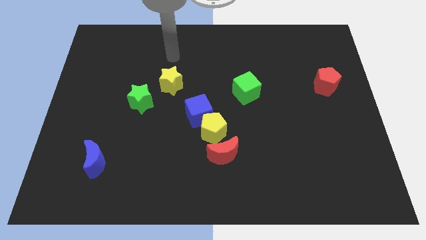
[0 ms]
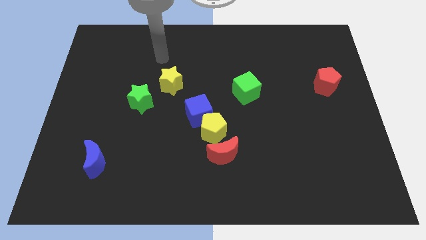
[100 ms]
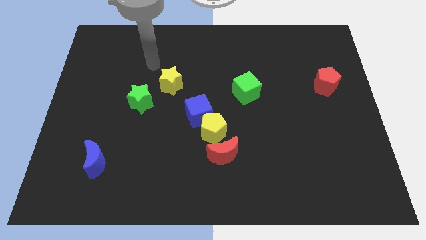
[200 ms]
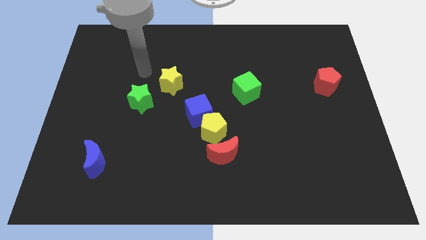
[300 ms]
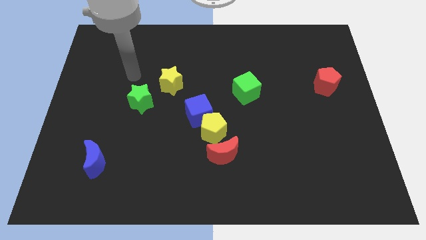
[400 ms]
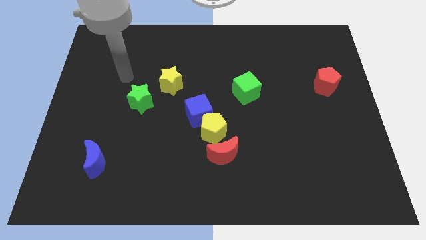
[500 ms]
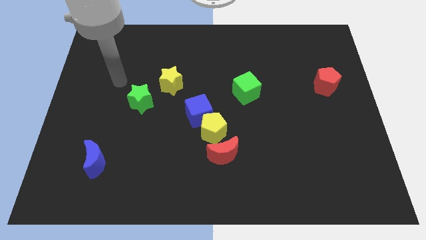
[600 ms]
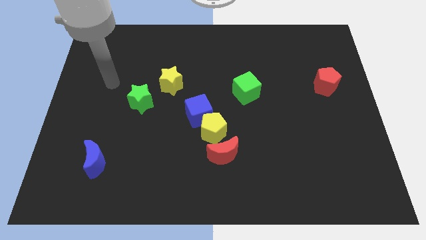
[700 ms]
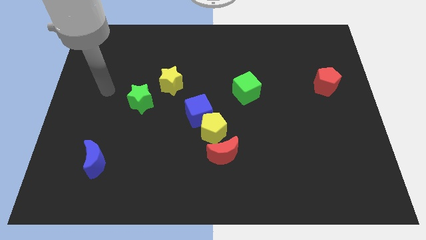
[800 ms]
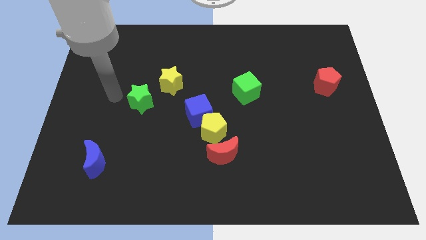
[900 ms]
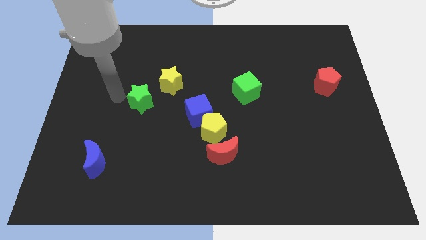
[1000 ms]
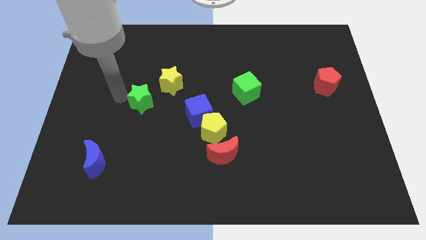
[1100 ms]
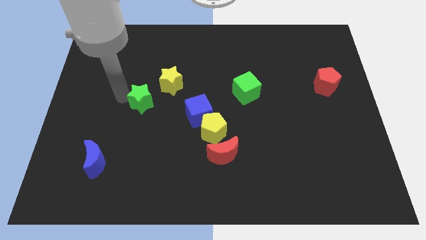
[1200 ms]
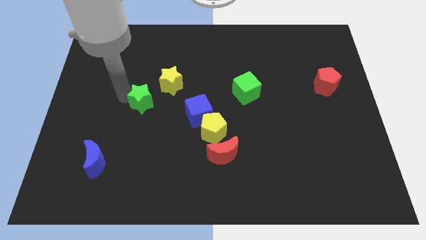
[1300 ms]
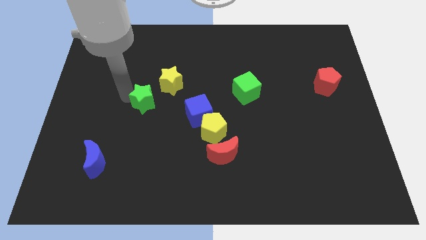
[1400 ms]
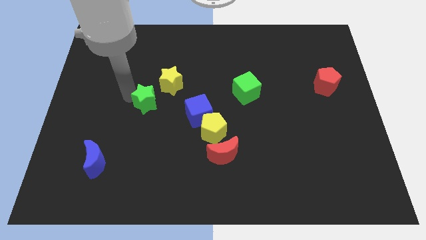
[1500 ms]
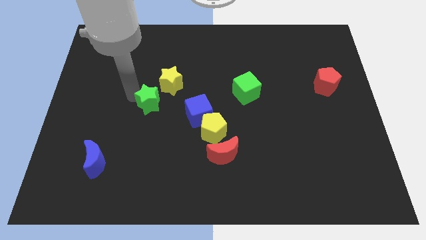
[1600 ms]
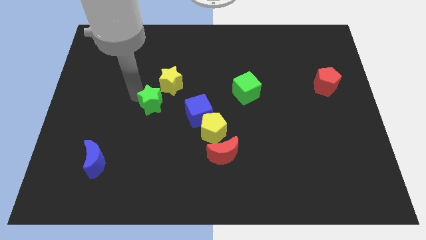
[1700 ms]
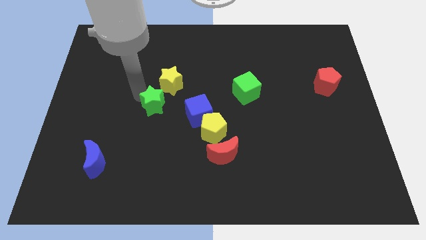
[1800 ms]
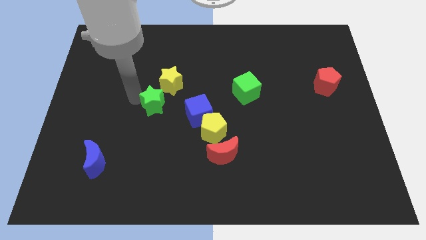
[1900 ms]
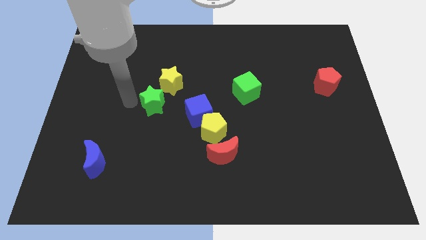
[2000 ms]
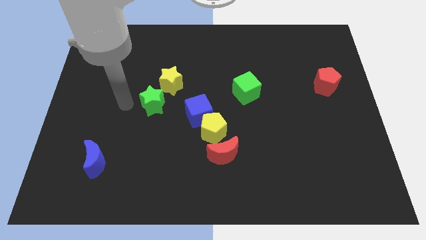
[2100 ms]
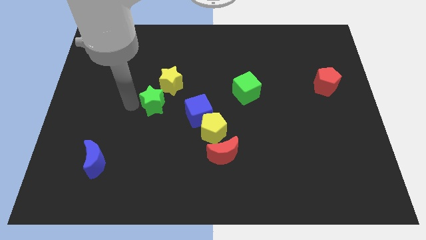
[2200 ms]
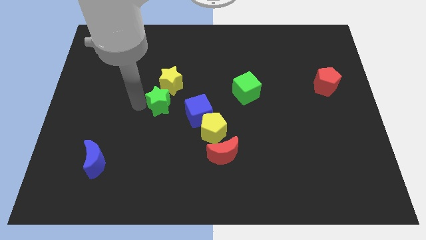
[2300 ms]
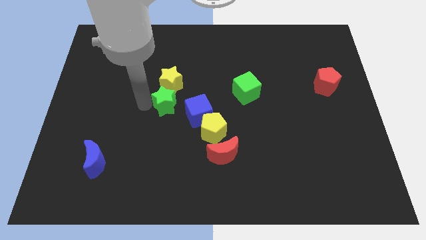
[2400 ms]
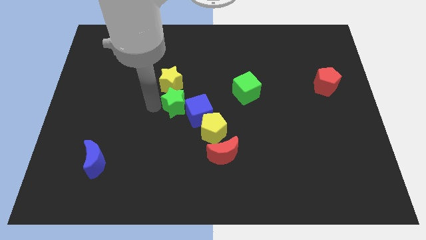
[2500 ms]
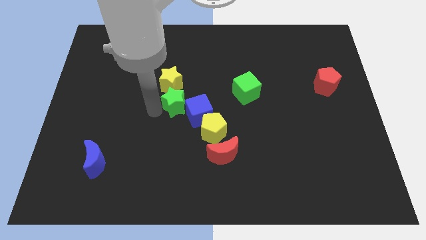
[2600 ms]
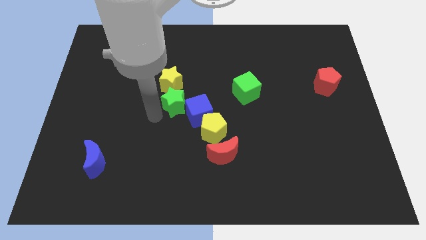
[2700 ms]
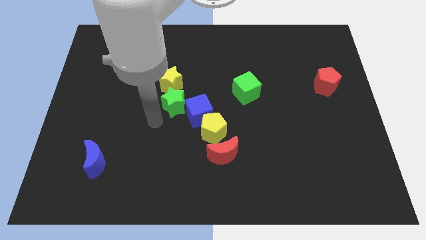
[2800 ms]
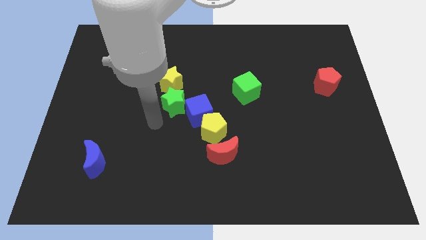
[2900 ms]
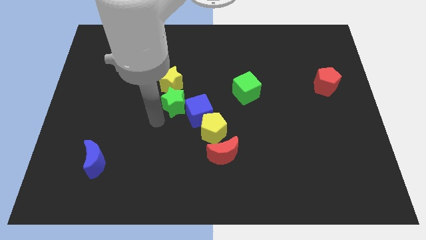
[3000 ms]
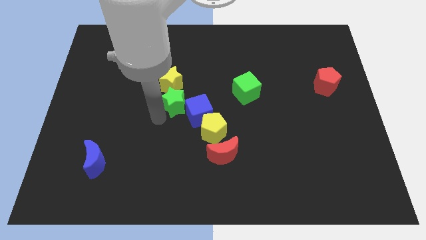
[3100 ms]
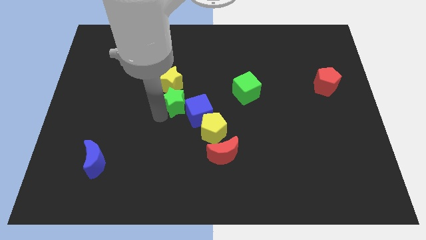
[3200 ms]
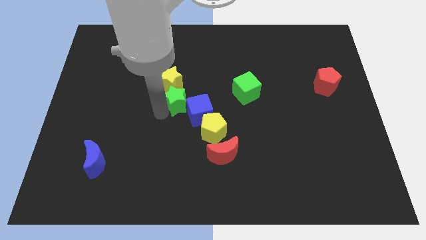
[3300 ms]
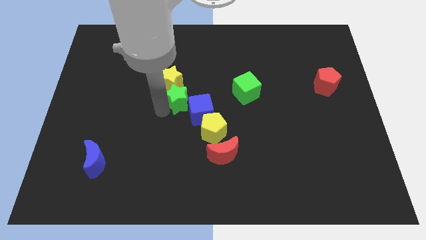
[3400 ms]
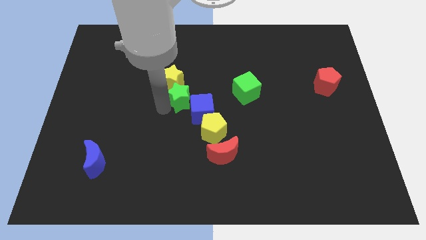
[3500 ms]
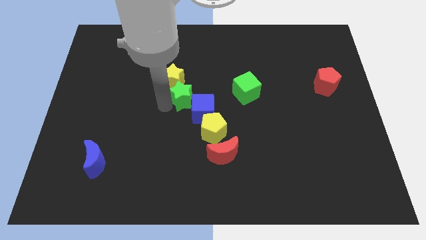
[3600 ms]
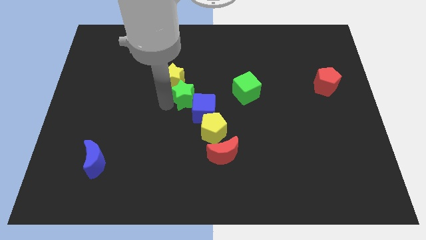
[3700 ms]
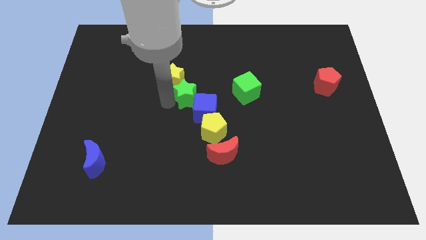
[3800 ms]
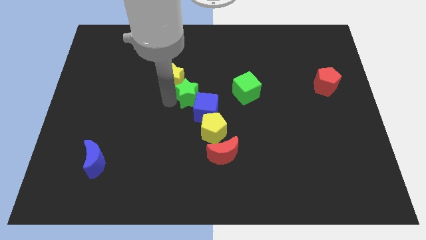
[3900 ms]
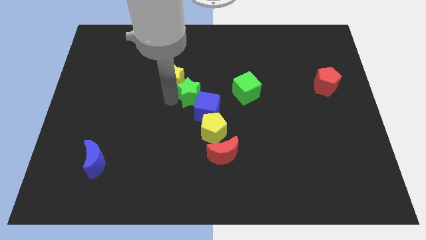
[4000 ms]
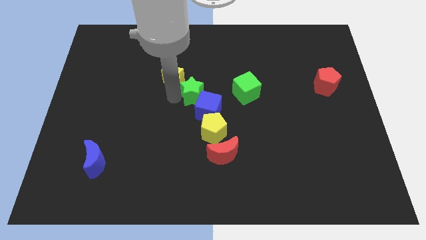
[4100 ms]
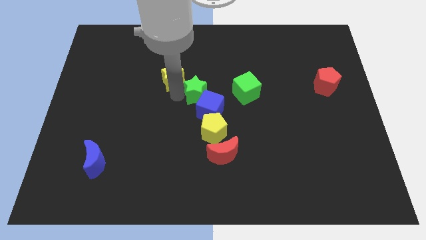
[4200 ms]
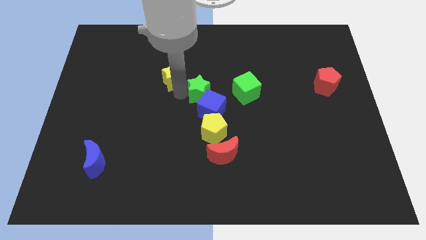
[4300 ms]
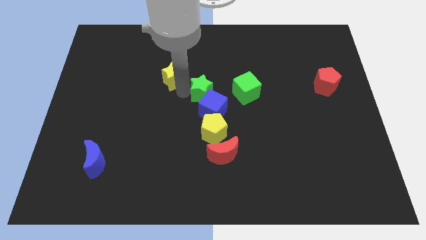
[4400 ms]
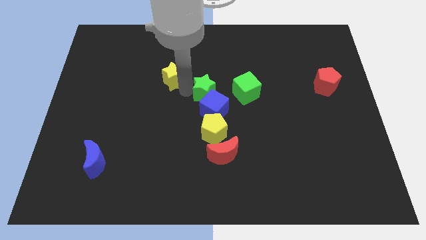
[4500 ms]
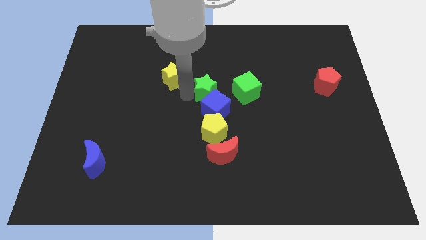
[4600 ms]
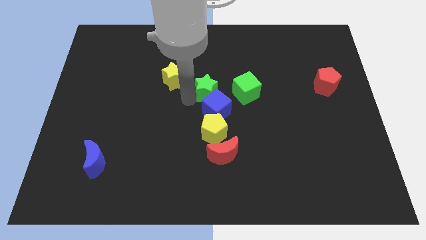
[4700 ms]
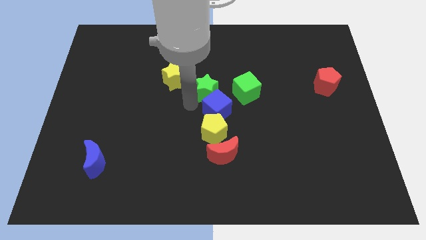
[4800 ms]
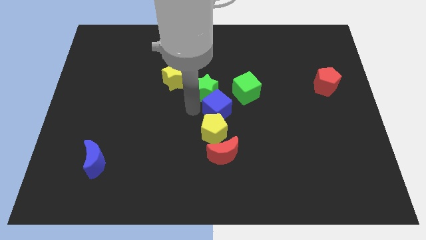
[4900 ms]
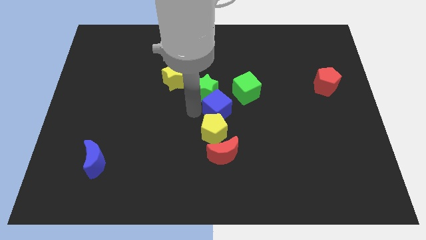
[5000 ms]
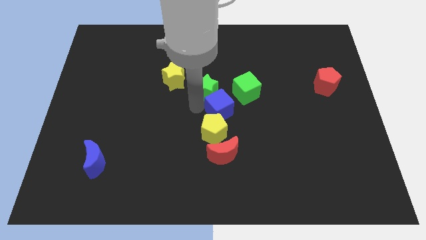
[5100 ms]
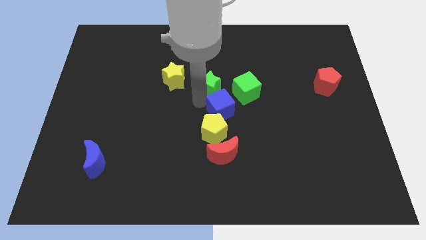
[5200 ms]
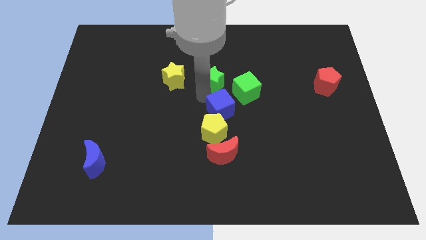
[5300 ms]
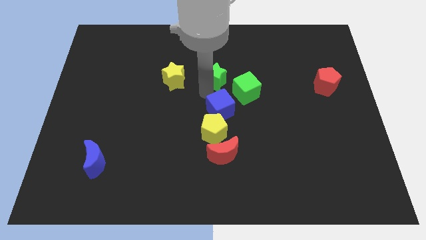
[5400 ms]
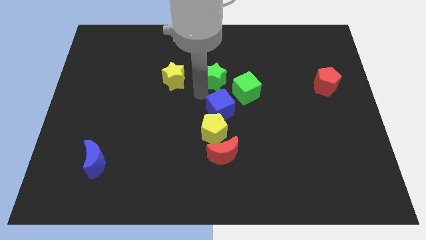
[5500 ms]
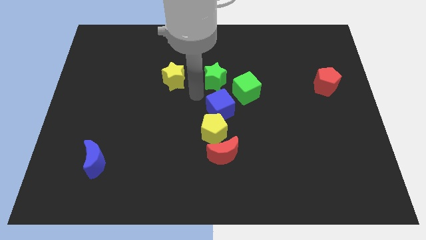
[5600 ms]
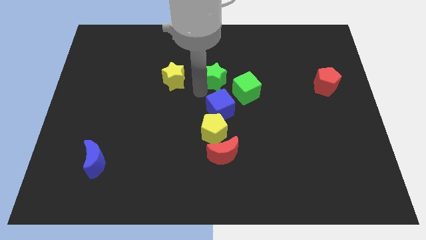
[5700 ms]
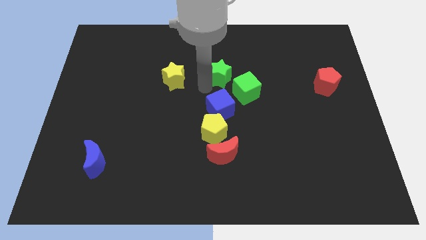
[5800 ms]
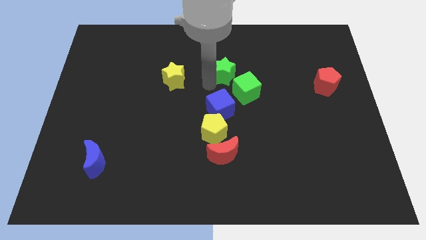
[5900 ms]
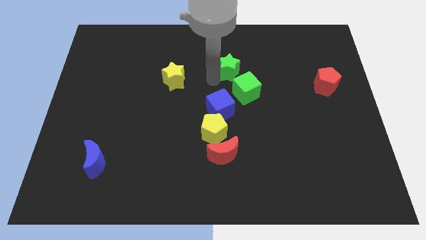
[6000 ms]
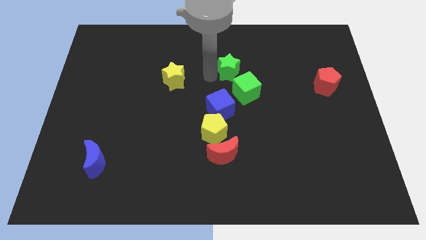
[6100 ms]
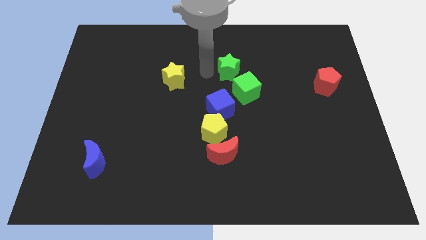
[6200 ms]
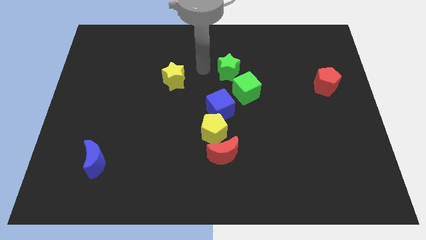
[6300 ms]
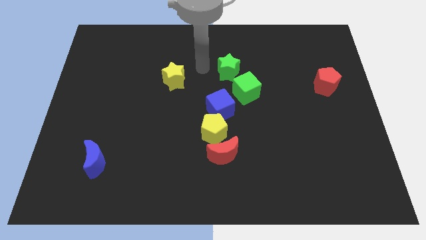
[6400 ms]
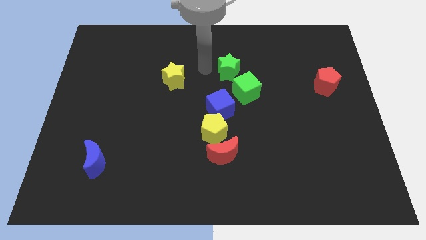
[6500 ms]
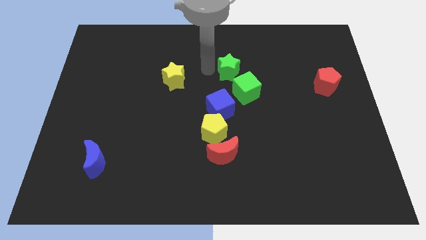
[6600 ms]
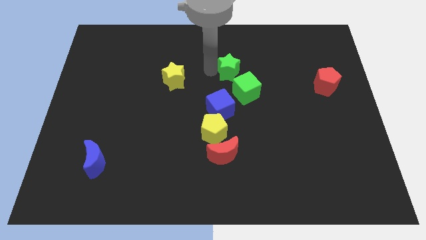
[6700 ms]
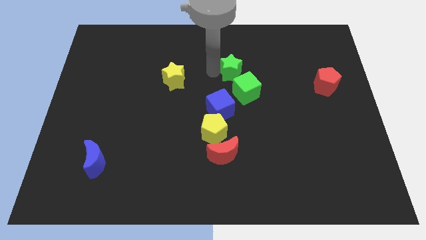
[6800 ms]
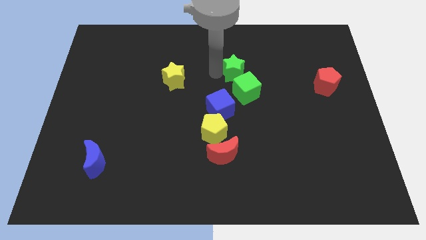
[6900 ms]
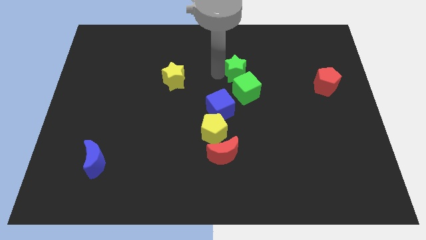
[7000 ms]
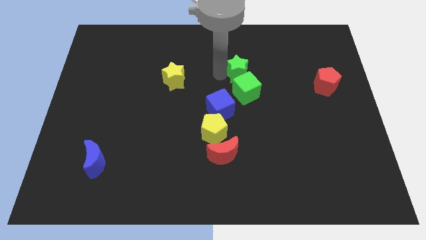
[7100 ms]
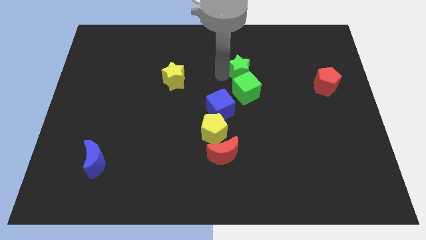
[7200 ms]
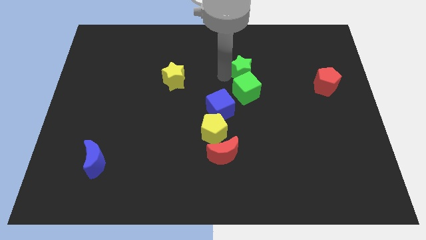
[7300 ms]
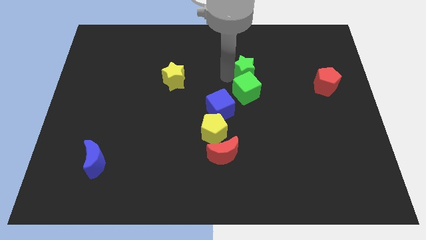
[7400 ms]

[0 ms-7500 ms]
put the green star to the top right of the green cube
